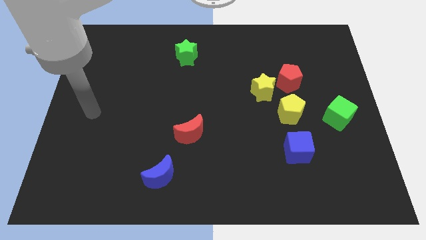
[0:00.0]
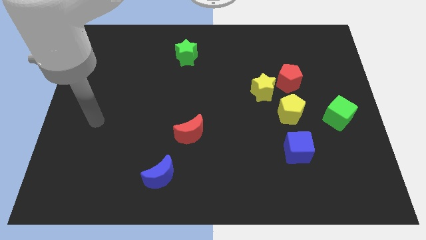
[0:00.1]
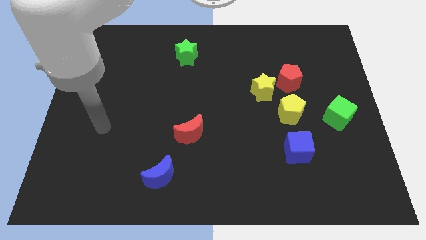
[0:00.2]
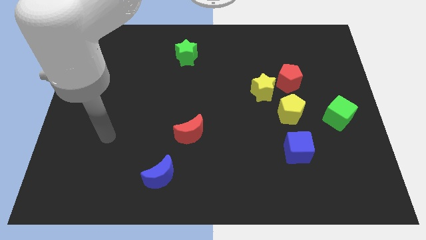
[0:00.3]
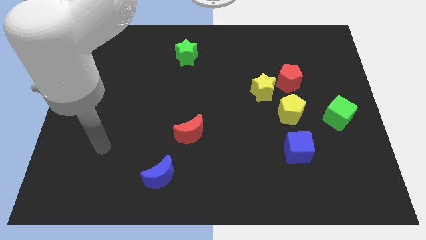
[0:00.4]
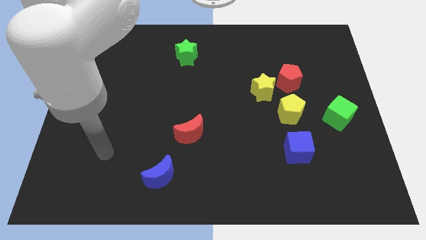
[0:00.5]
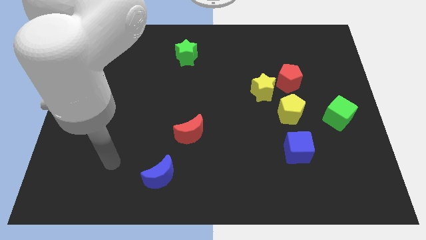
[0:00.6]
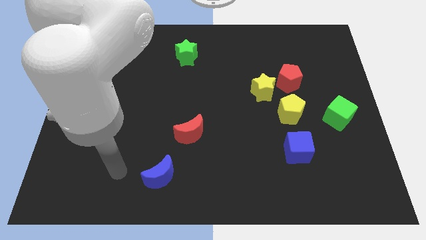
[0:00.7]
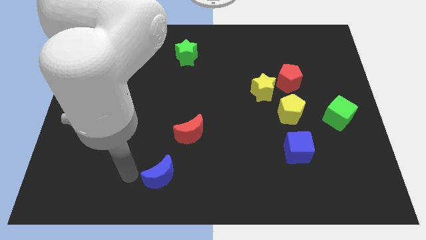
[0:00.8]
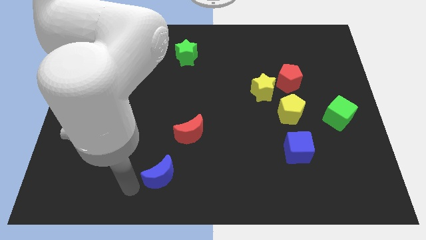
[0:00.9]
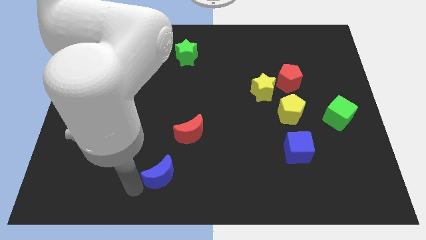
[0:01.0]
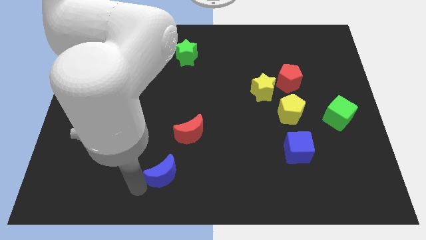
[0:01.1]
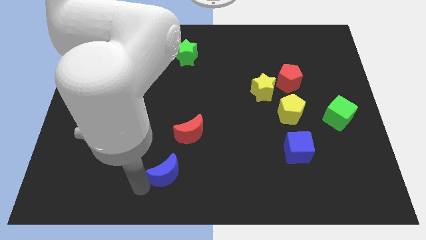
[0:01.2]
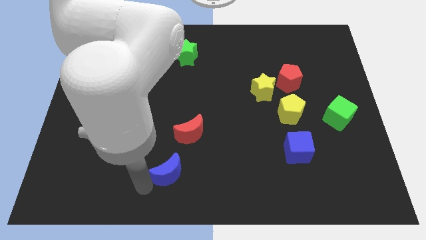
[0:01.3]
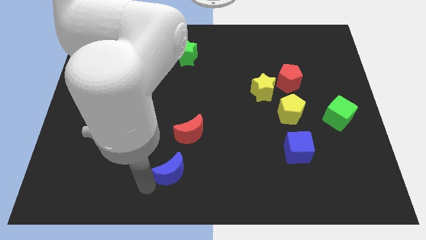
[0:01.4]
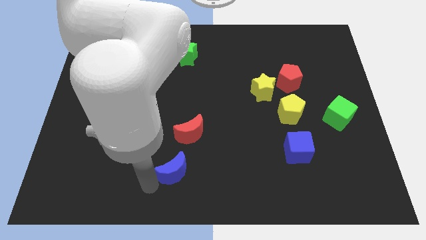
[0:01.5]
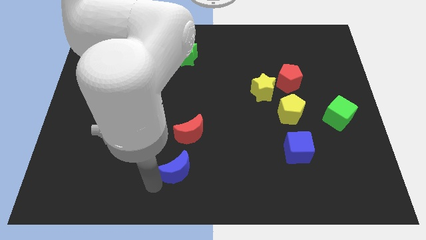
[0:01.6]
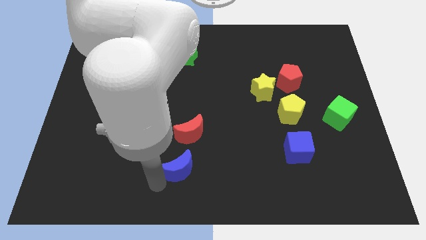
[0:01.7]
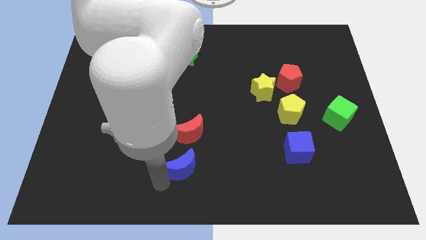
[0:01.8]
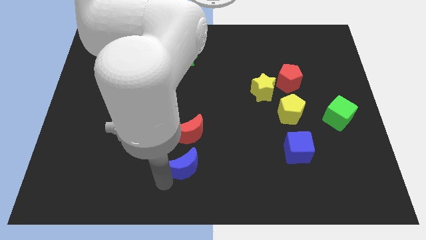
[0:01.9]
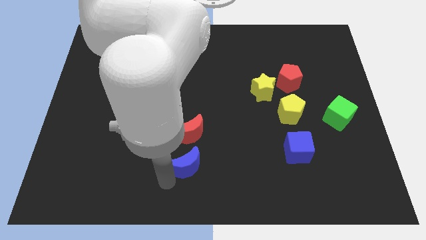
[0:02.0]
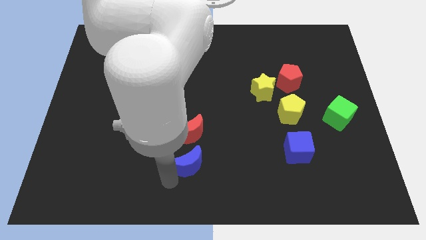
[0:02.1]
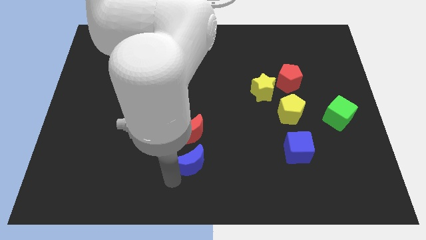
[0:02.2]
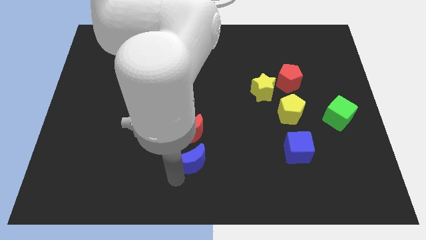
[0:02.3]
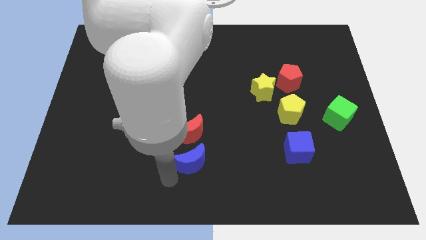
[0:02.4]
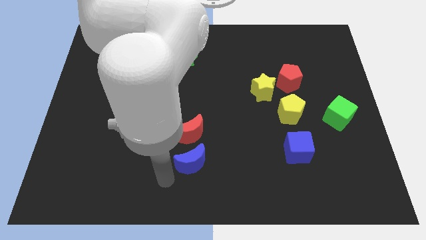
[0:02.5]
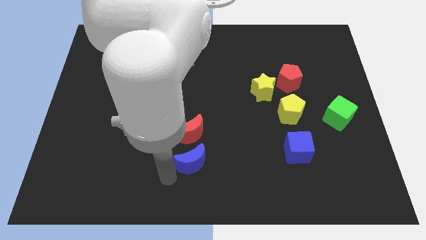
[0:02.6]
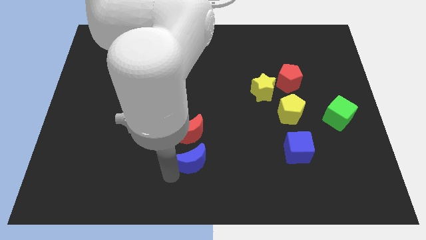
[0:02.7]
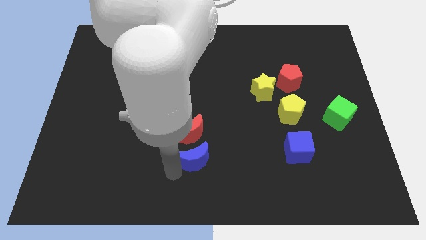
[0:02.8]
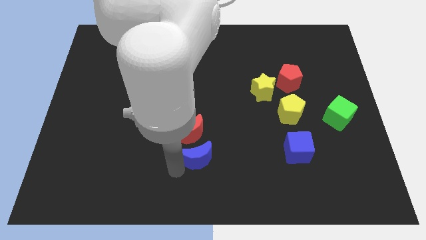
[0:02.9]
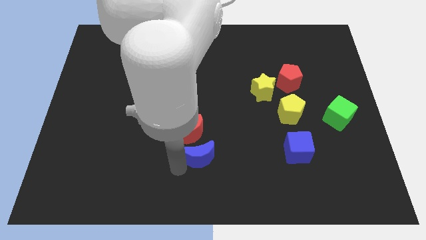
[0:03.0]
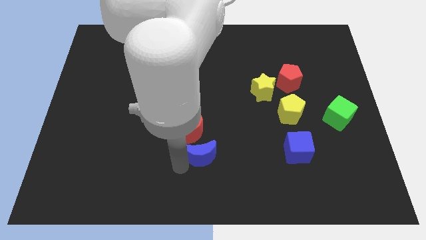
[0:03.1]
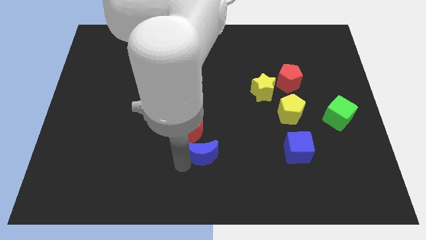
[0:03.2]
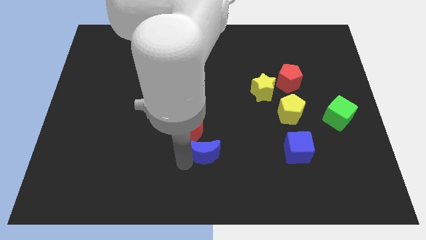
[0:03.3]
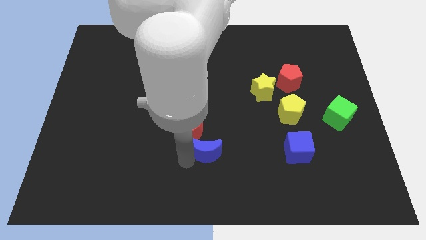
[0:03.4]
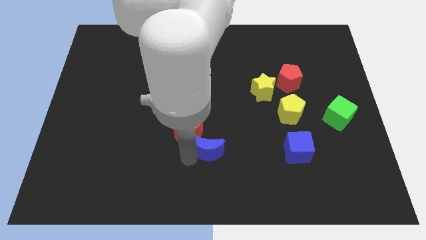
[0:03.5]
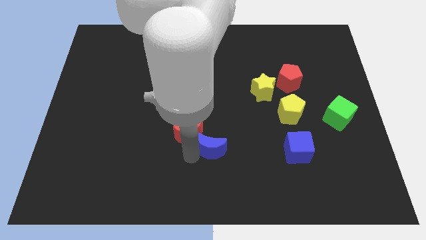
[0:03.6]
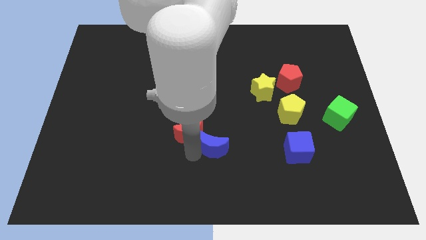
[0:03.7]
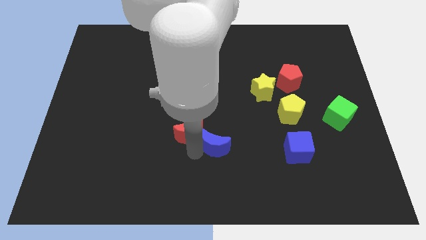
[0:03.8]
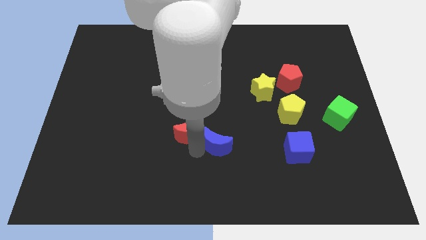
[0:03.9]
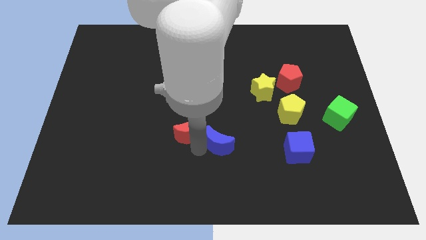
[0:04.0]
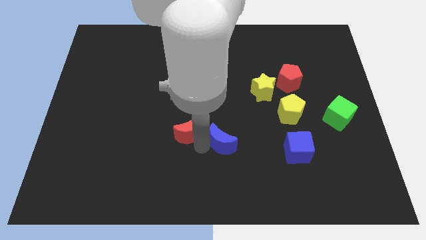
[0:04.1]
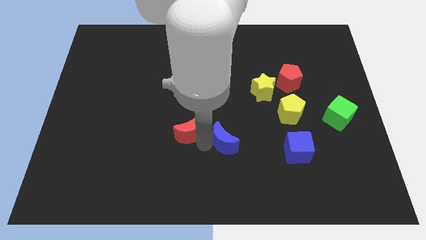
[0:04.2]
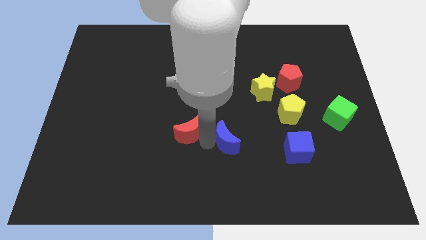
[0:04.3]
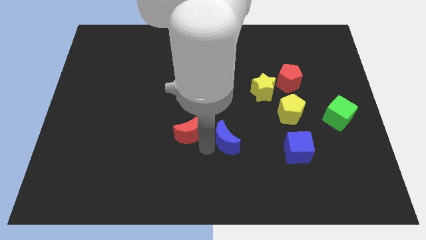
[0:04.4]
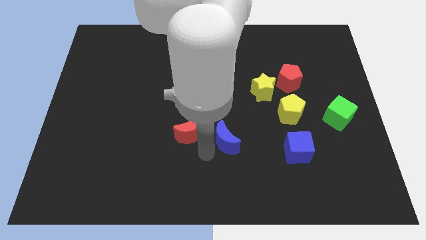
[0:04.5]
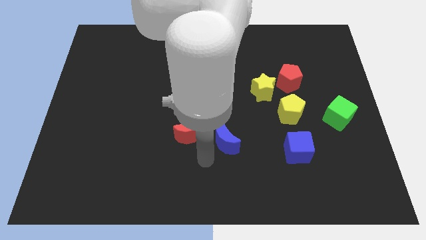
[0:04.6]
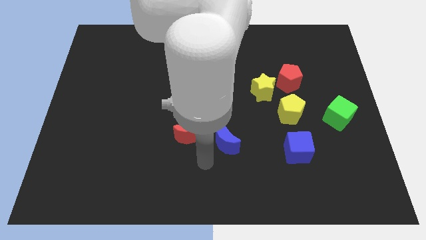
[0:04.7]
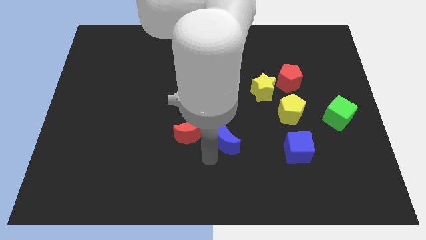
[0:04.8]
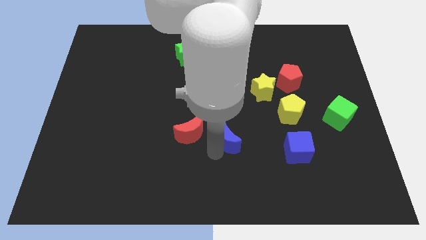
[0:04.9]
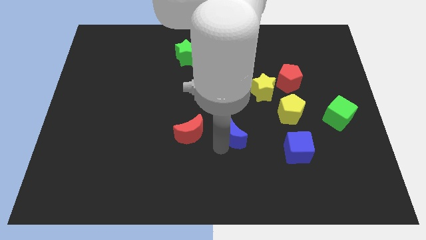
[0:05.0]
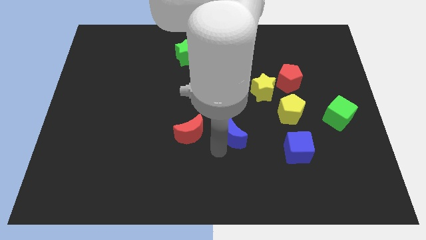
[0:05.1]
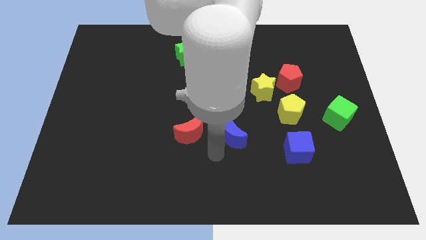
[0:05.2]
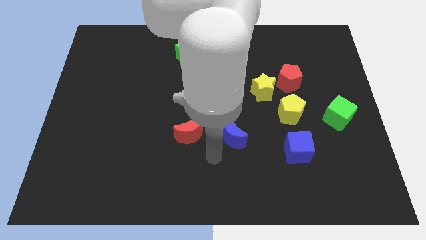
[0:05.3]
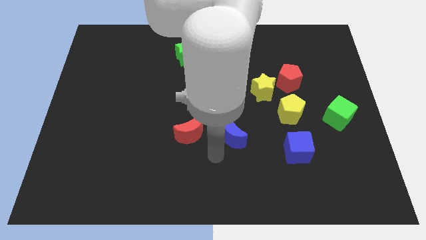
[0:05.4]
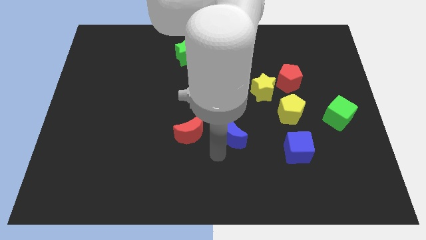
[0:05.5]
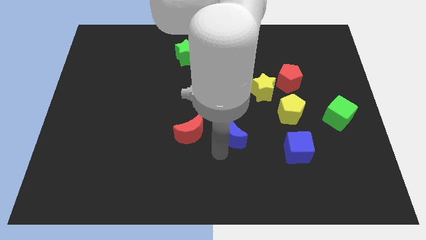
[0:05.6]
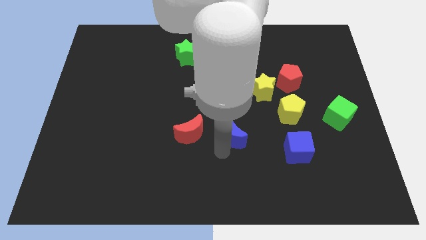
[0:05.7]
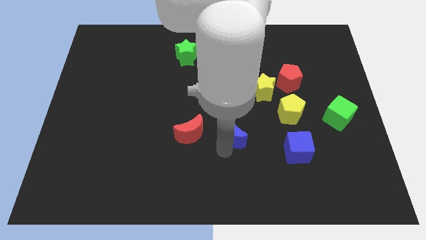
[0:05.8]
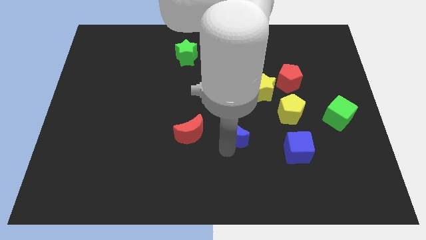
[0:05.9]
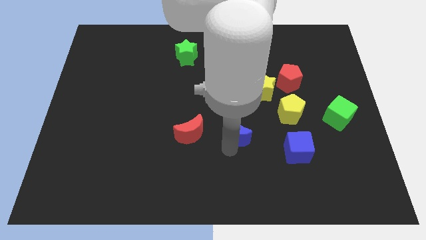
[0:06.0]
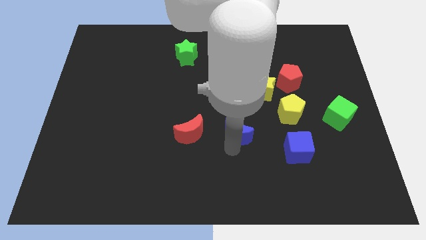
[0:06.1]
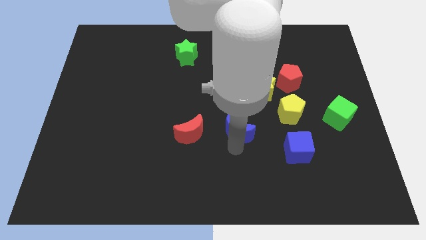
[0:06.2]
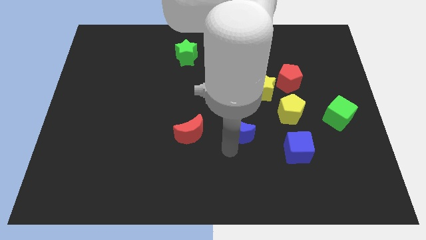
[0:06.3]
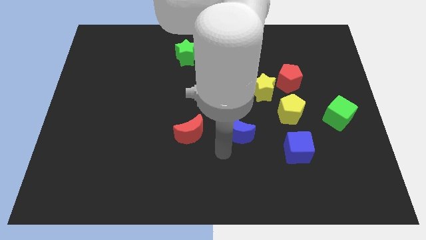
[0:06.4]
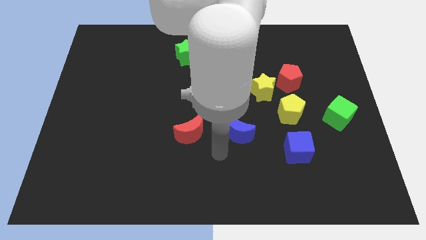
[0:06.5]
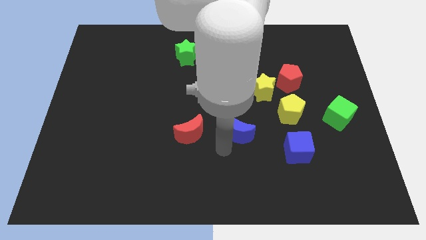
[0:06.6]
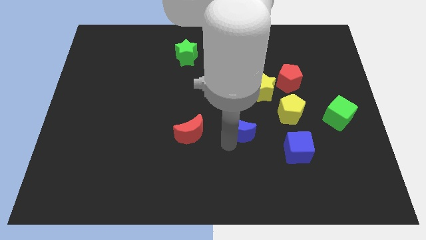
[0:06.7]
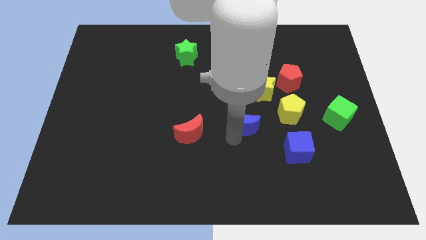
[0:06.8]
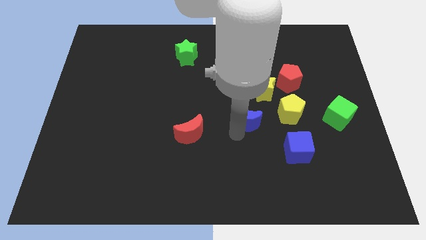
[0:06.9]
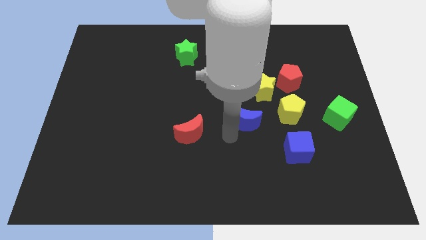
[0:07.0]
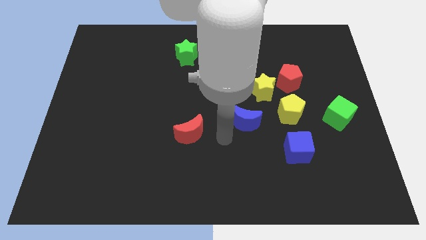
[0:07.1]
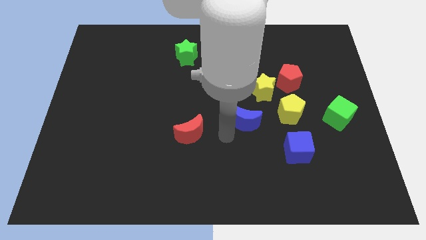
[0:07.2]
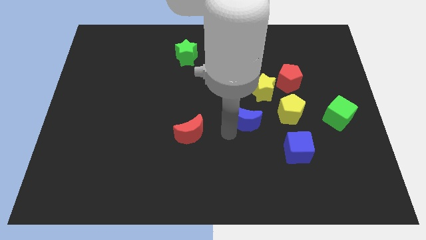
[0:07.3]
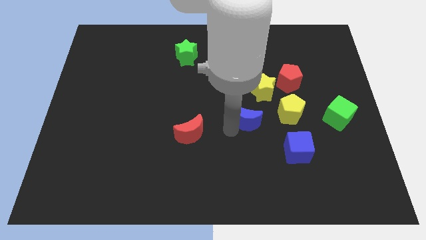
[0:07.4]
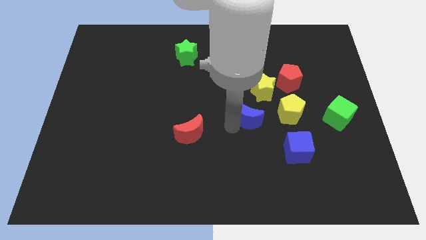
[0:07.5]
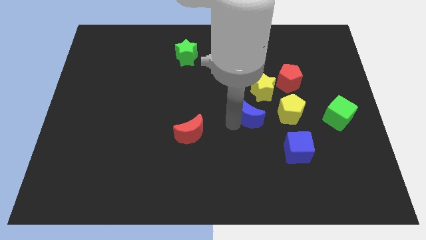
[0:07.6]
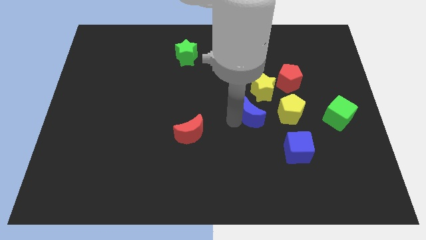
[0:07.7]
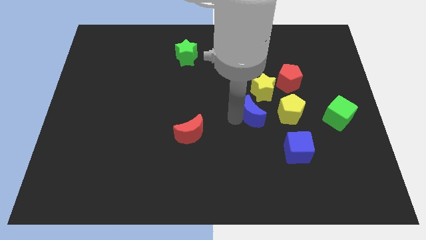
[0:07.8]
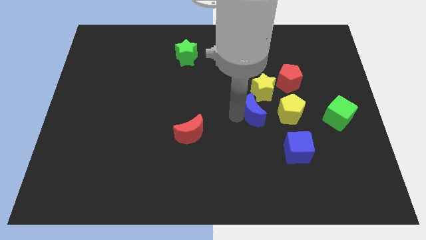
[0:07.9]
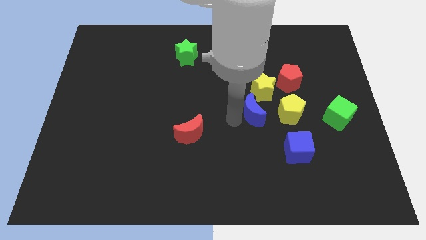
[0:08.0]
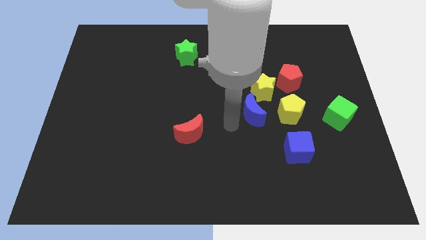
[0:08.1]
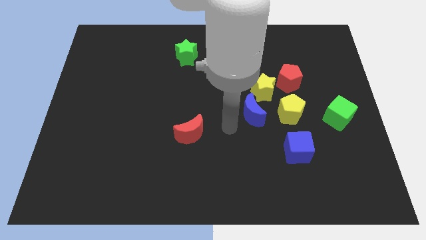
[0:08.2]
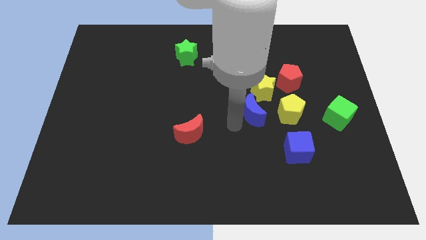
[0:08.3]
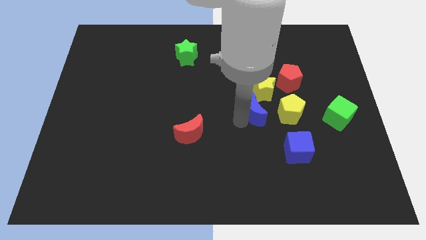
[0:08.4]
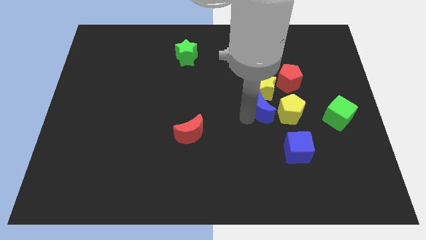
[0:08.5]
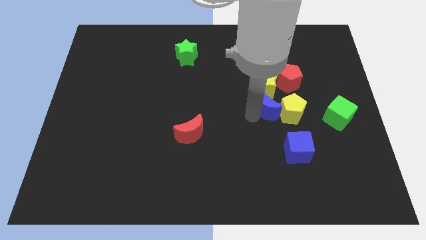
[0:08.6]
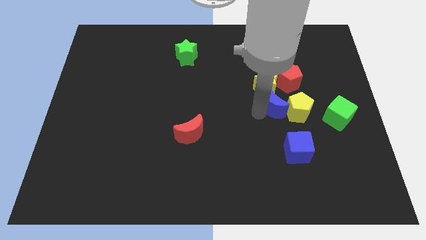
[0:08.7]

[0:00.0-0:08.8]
put the blue moon to the top of the blue cube
